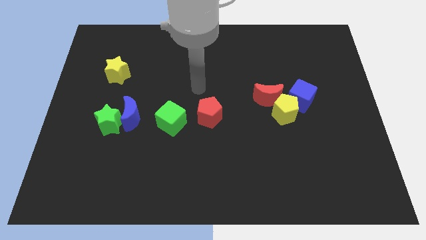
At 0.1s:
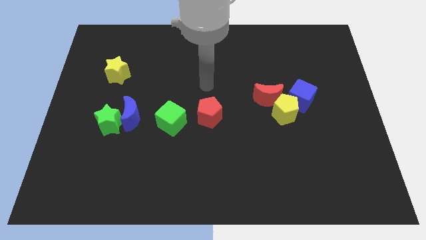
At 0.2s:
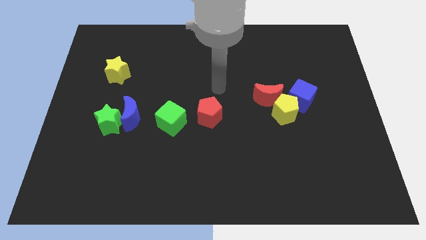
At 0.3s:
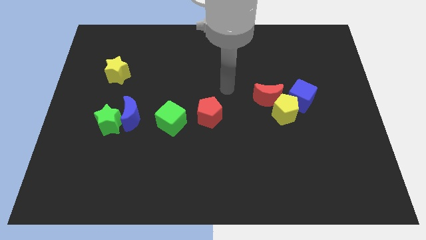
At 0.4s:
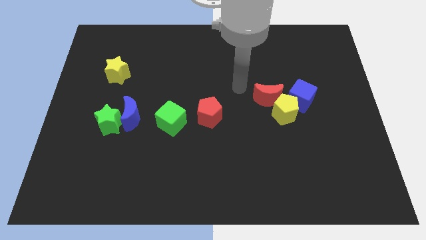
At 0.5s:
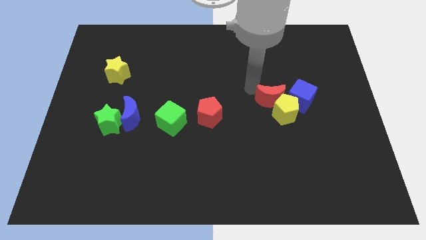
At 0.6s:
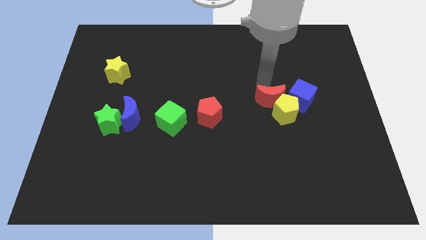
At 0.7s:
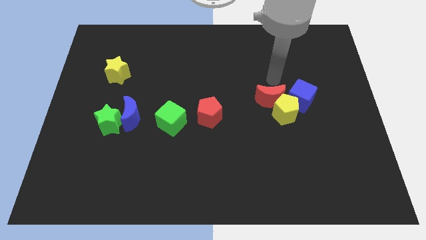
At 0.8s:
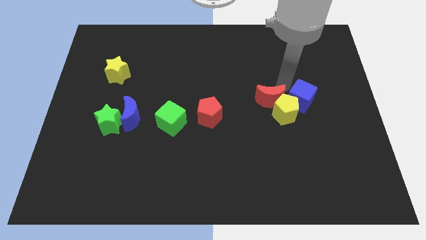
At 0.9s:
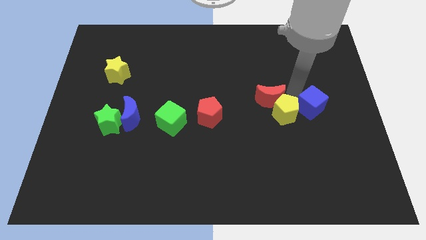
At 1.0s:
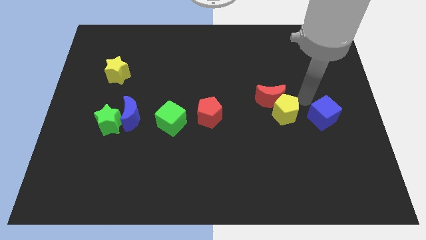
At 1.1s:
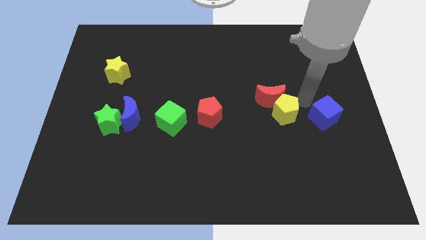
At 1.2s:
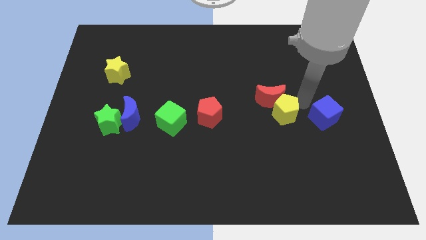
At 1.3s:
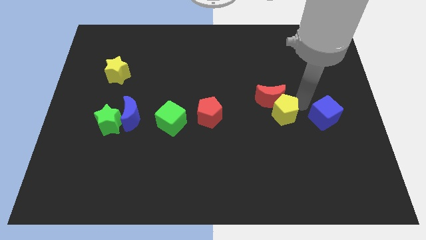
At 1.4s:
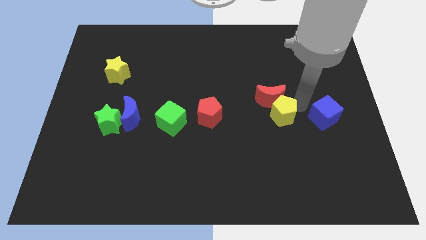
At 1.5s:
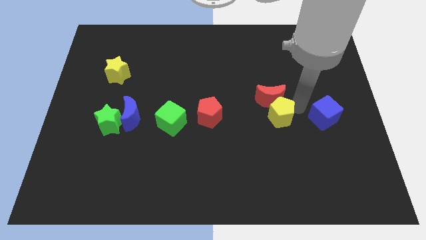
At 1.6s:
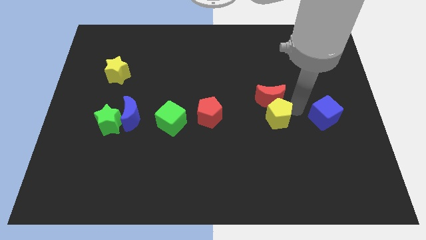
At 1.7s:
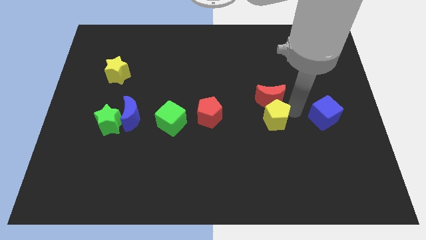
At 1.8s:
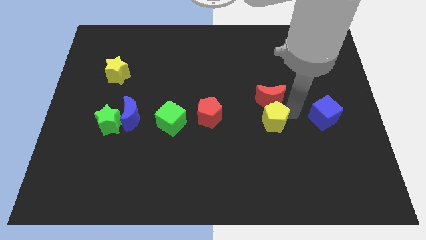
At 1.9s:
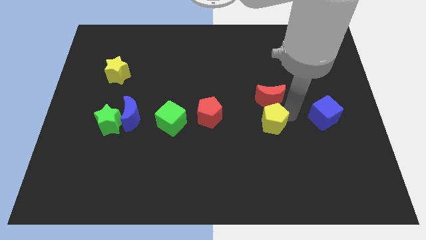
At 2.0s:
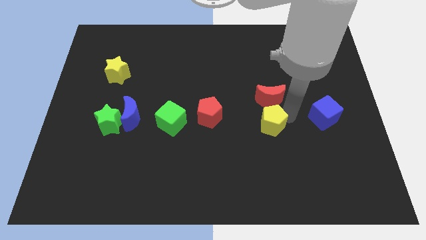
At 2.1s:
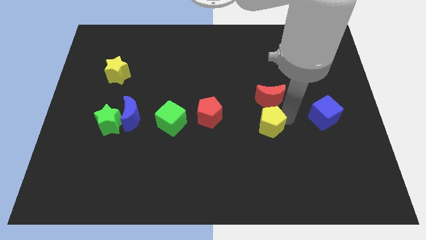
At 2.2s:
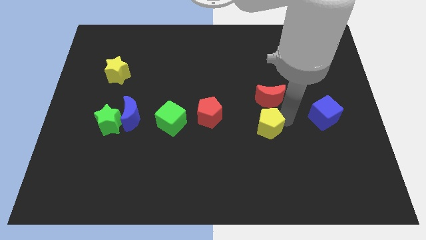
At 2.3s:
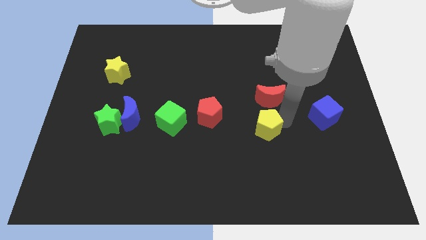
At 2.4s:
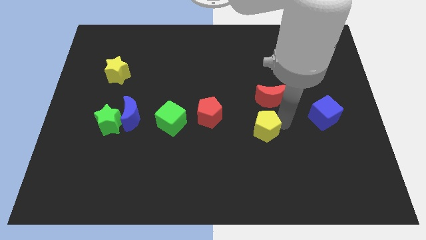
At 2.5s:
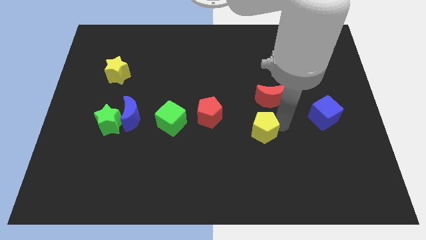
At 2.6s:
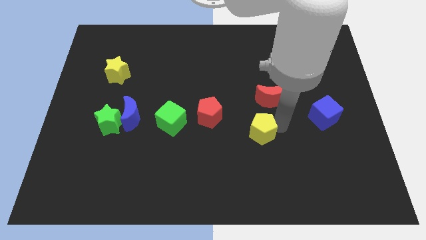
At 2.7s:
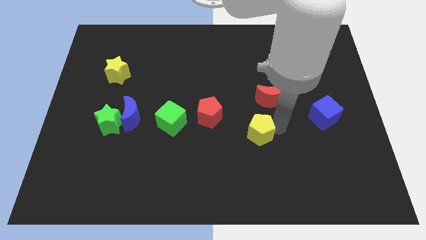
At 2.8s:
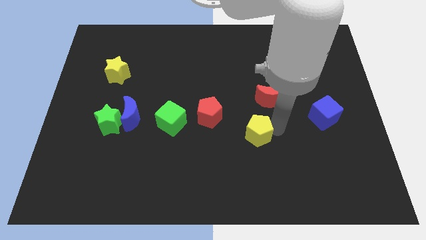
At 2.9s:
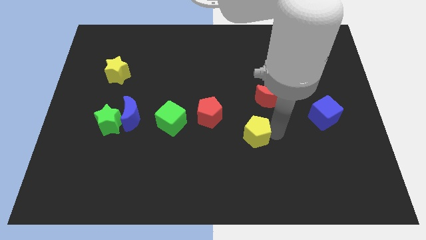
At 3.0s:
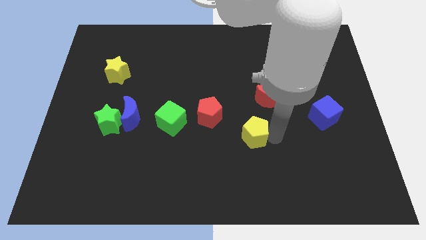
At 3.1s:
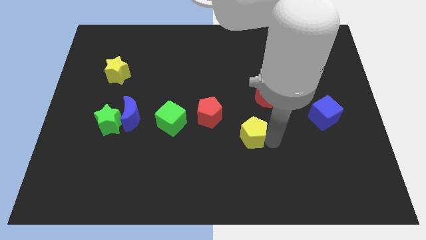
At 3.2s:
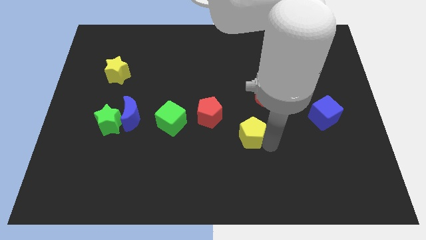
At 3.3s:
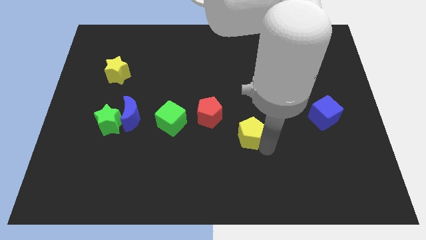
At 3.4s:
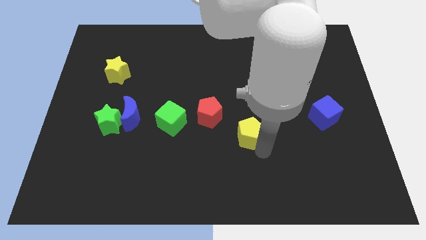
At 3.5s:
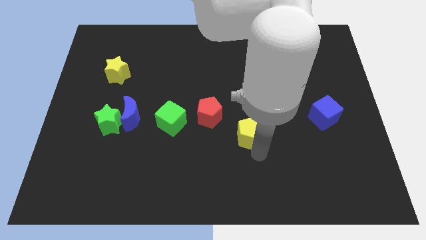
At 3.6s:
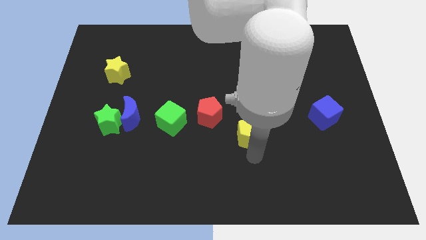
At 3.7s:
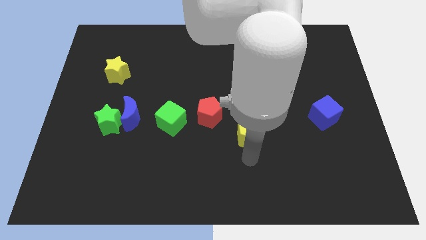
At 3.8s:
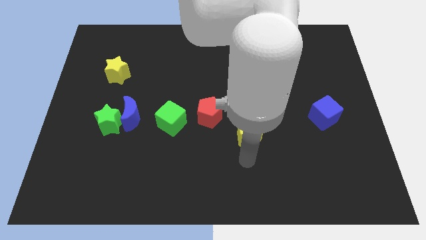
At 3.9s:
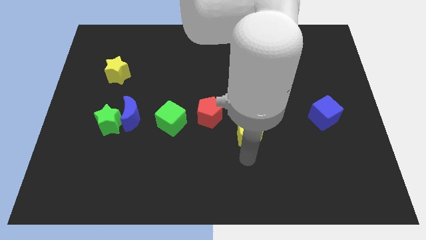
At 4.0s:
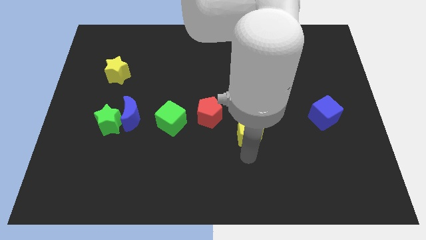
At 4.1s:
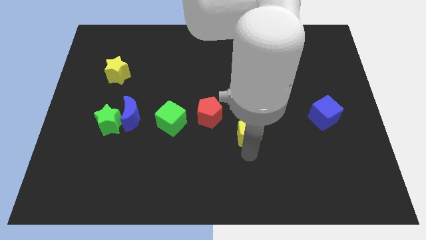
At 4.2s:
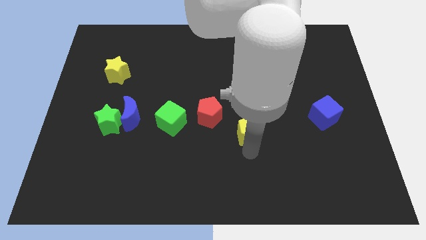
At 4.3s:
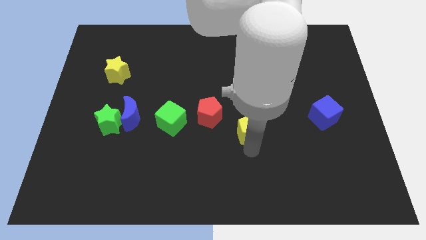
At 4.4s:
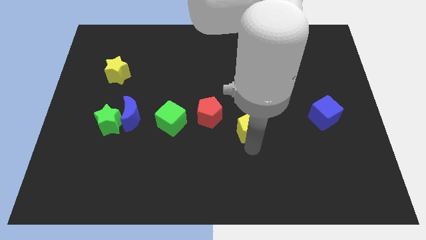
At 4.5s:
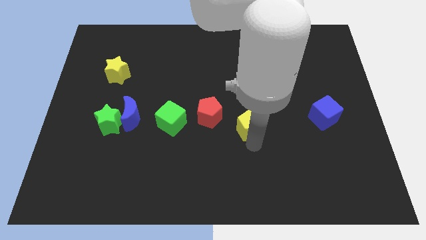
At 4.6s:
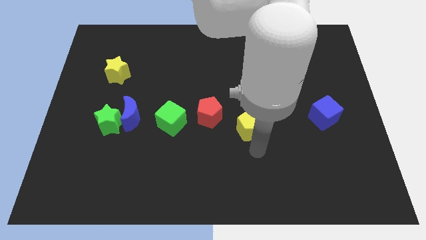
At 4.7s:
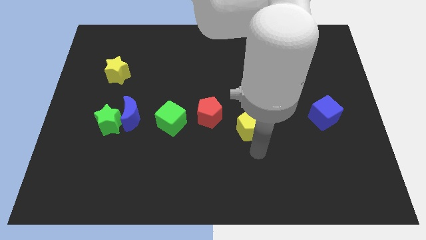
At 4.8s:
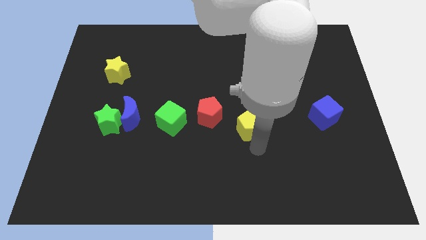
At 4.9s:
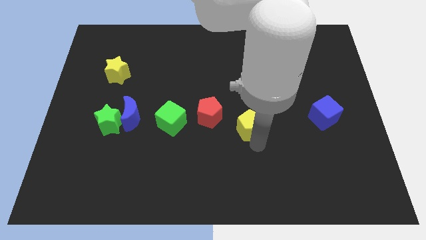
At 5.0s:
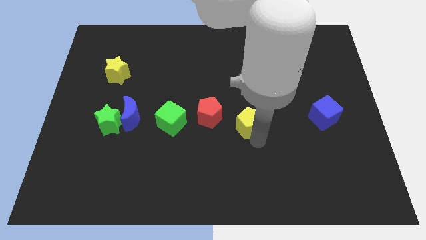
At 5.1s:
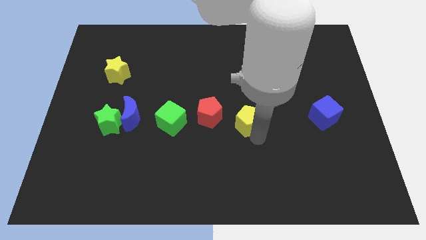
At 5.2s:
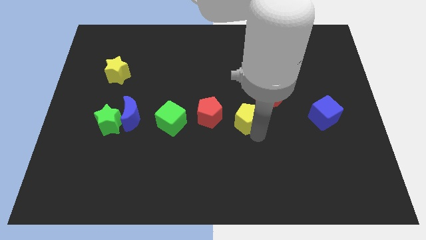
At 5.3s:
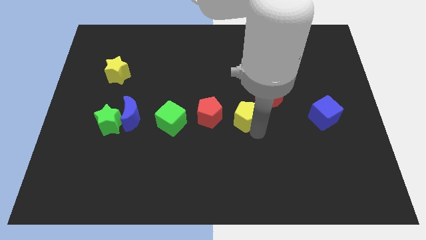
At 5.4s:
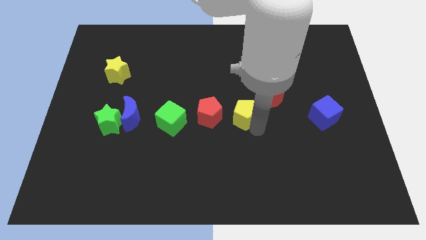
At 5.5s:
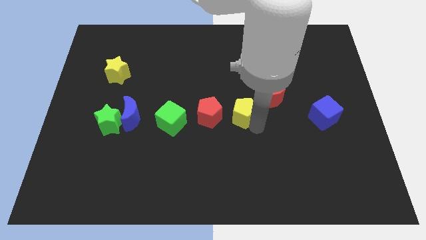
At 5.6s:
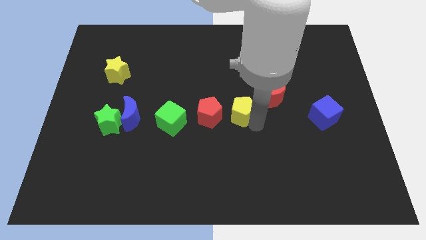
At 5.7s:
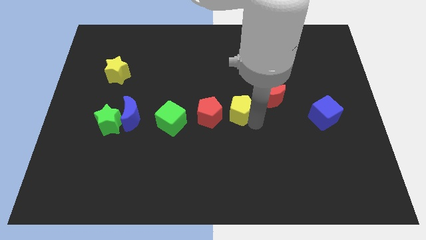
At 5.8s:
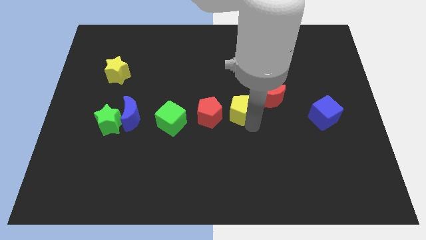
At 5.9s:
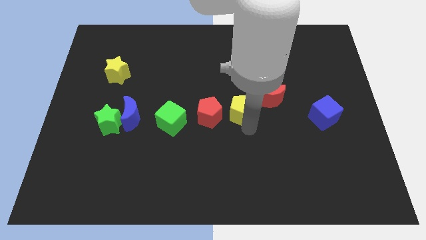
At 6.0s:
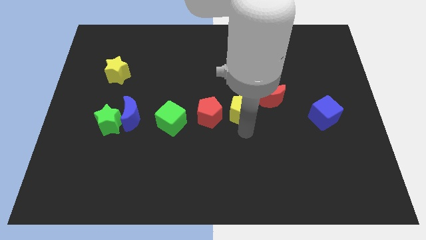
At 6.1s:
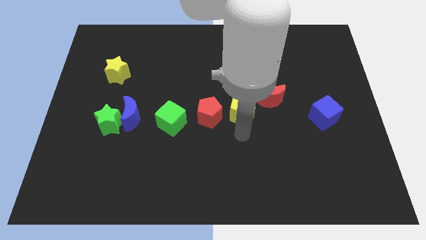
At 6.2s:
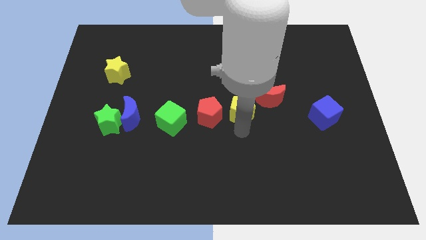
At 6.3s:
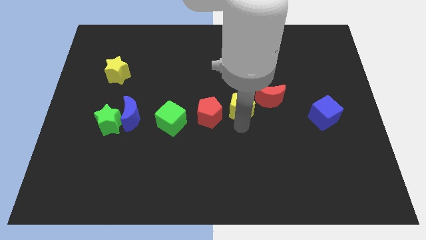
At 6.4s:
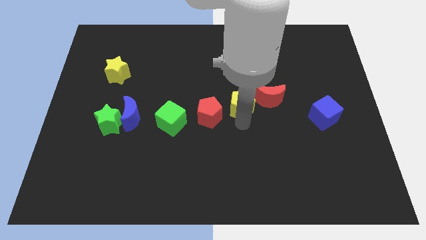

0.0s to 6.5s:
slide the yellow pentagon upwards and to the left diagonally slightly

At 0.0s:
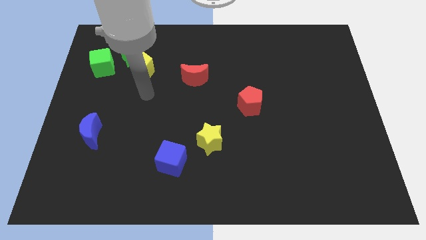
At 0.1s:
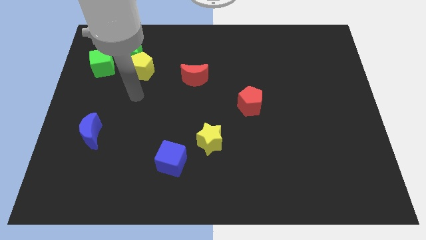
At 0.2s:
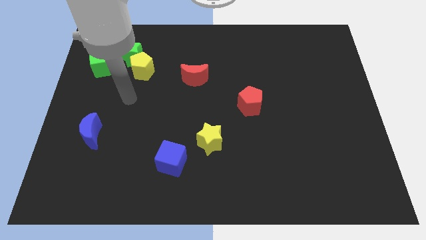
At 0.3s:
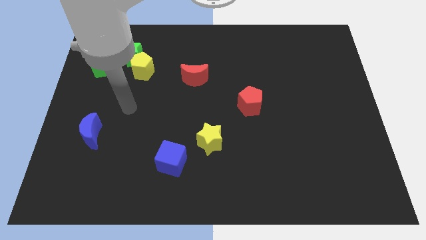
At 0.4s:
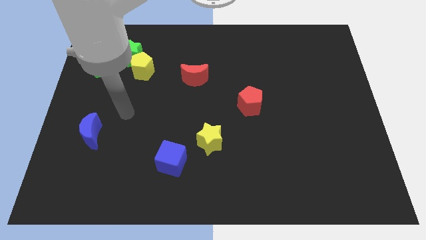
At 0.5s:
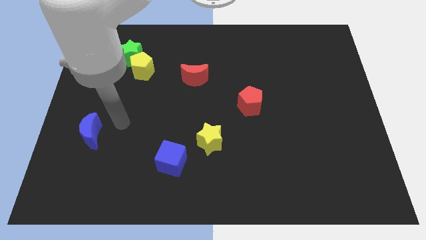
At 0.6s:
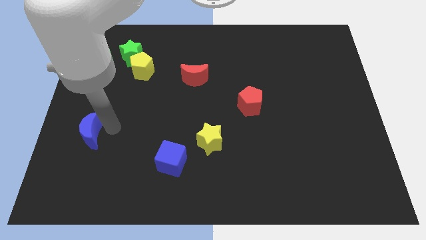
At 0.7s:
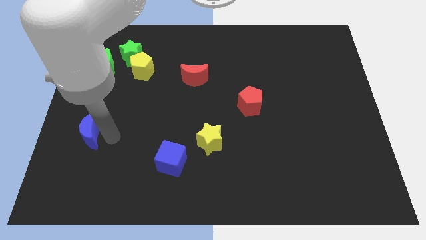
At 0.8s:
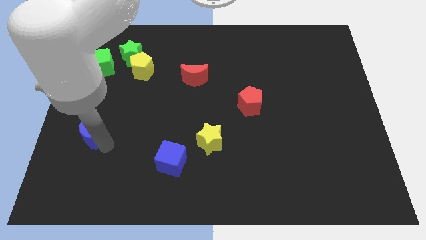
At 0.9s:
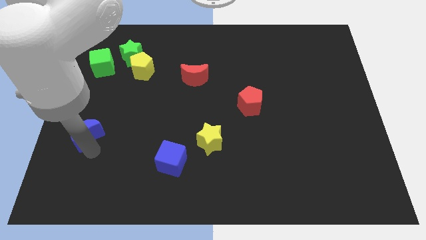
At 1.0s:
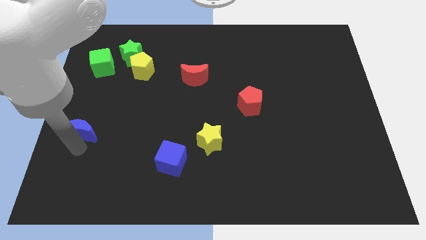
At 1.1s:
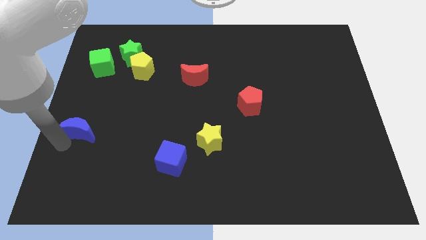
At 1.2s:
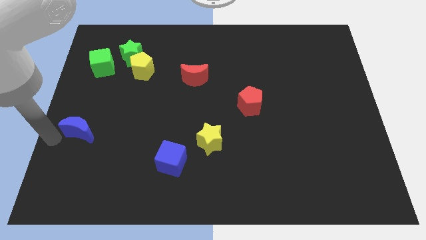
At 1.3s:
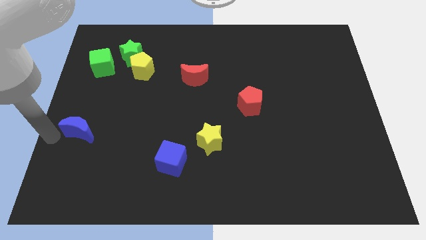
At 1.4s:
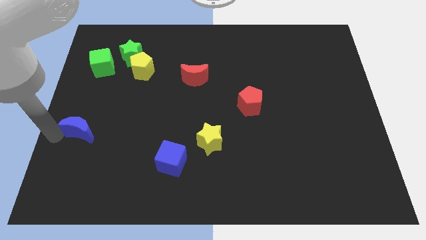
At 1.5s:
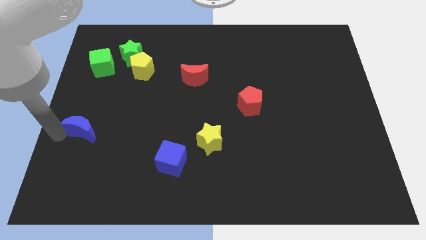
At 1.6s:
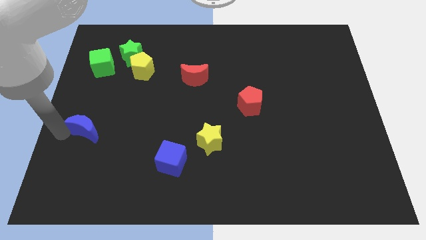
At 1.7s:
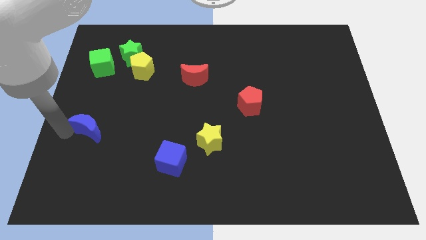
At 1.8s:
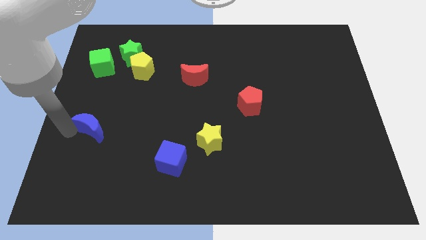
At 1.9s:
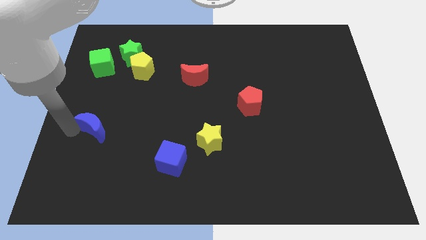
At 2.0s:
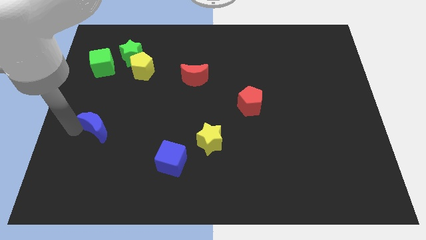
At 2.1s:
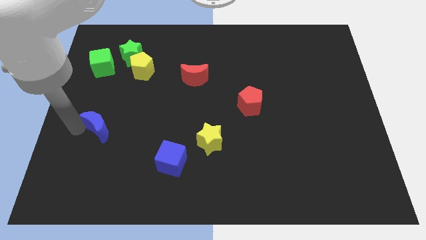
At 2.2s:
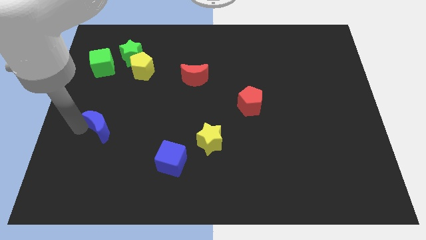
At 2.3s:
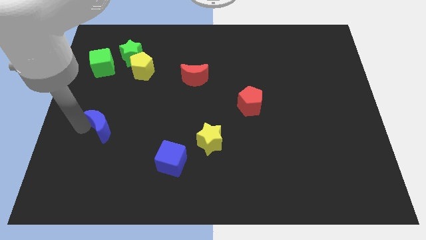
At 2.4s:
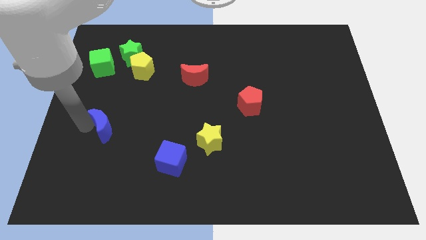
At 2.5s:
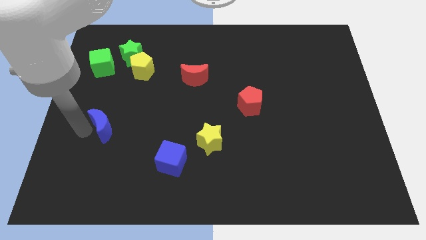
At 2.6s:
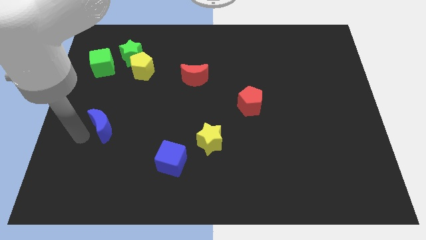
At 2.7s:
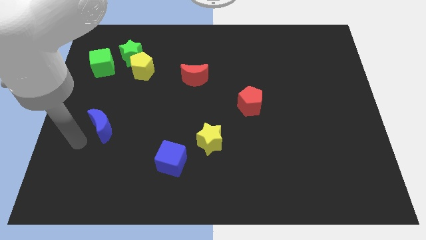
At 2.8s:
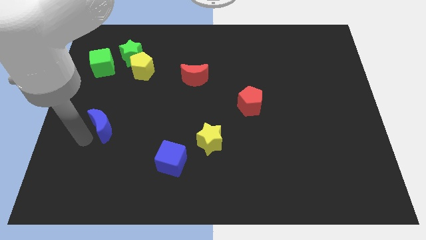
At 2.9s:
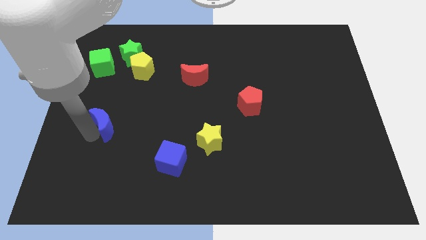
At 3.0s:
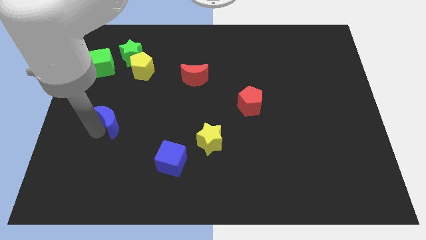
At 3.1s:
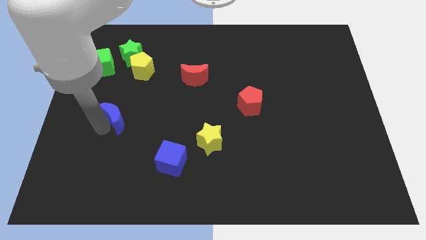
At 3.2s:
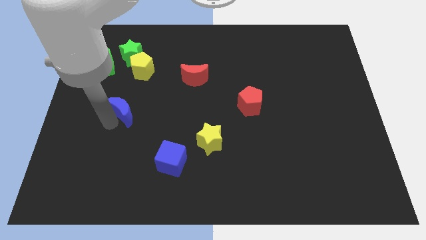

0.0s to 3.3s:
slide the blue moon somewhat upwards and to the right diagonally
